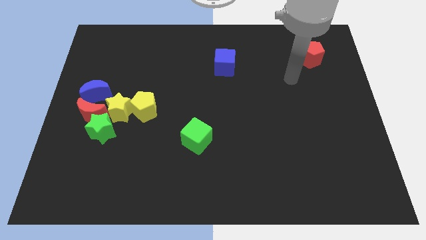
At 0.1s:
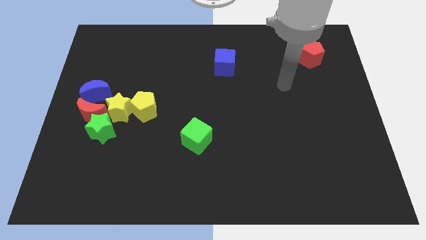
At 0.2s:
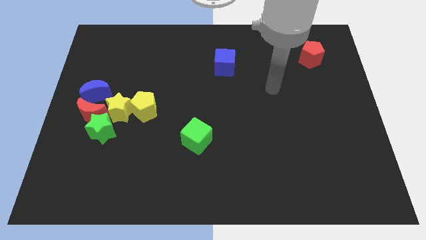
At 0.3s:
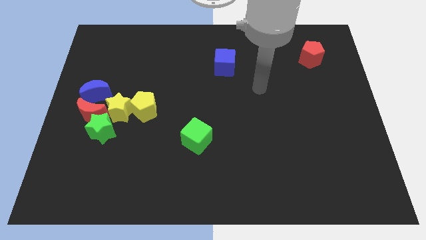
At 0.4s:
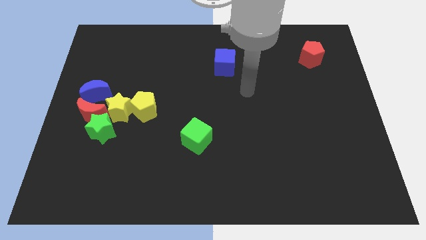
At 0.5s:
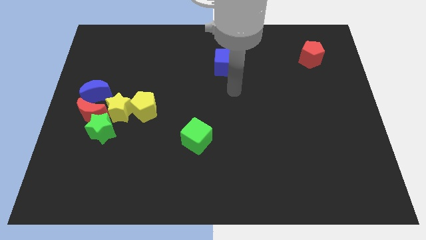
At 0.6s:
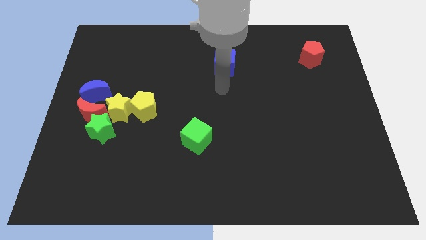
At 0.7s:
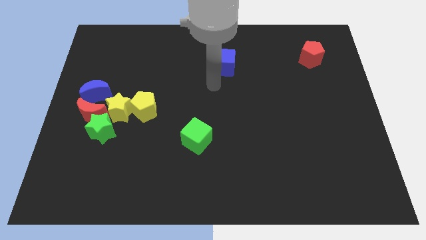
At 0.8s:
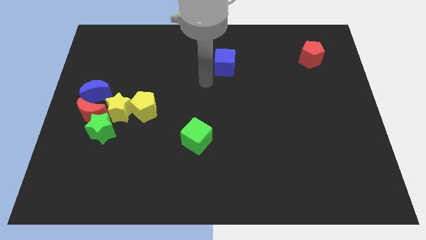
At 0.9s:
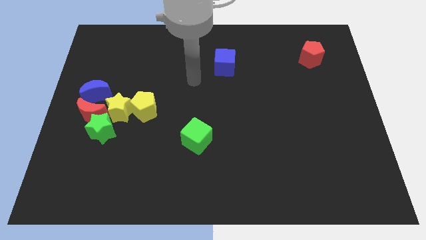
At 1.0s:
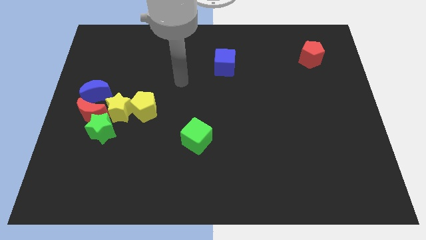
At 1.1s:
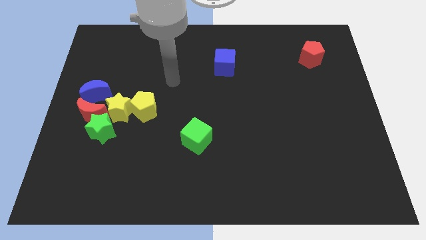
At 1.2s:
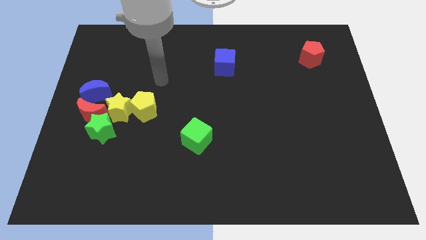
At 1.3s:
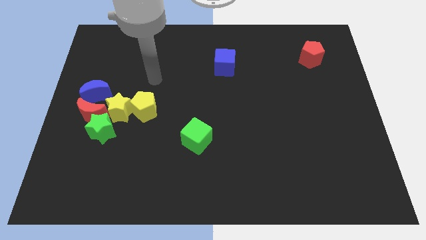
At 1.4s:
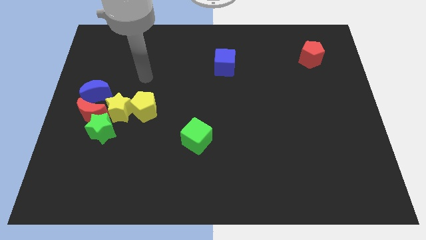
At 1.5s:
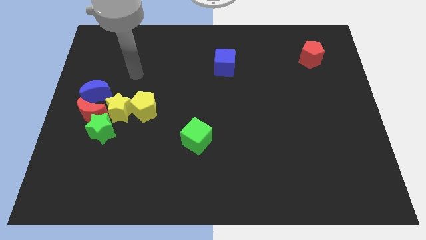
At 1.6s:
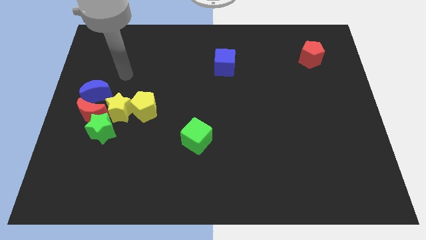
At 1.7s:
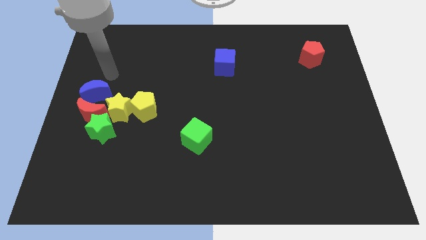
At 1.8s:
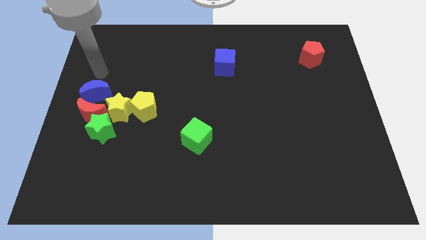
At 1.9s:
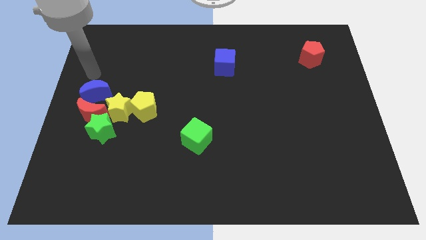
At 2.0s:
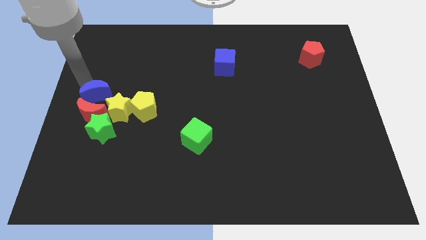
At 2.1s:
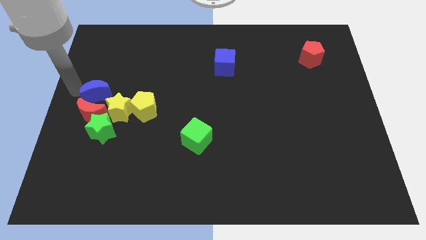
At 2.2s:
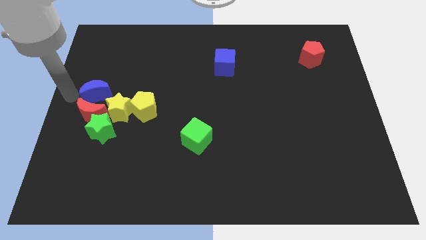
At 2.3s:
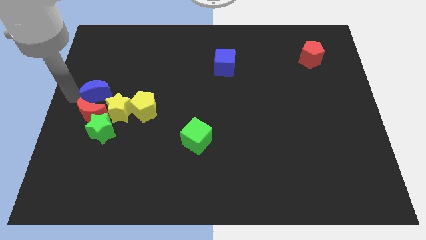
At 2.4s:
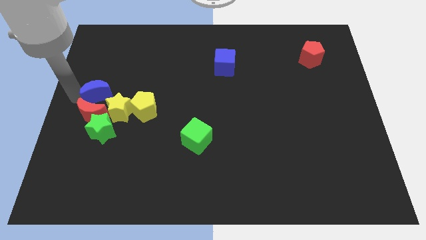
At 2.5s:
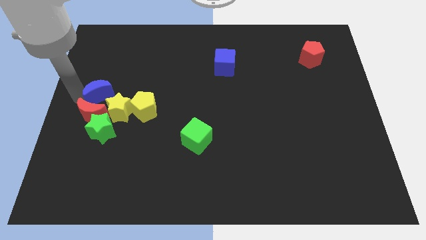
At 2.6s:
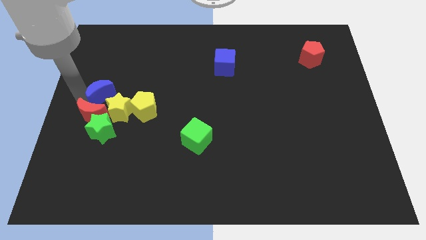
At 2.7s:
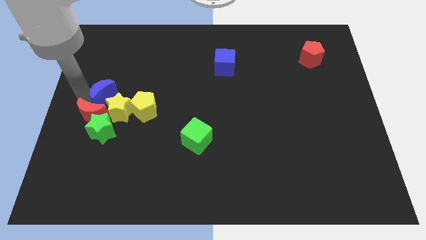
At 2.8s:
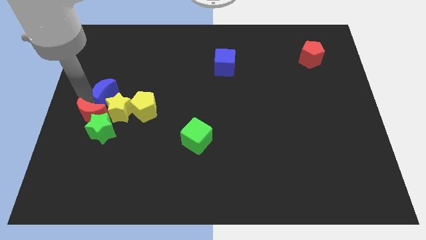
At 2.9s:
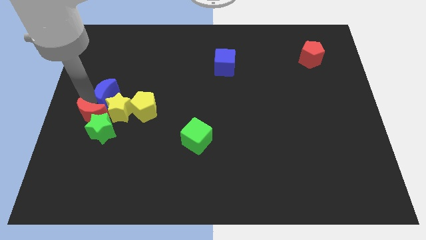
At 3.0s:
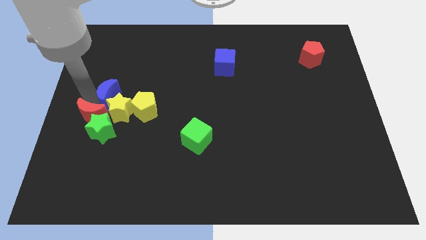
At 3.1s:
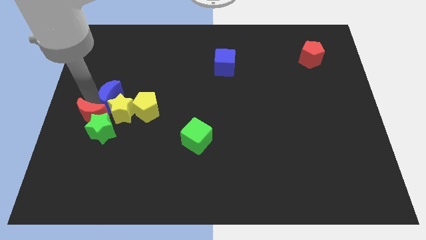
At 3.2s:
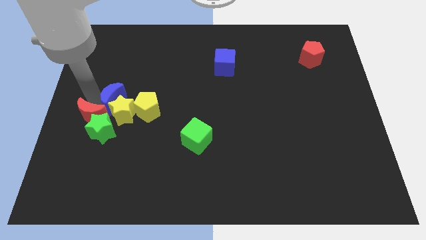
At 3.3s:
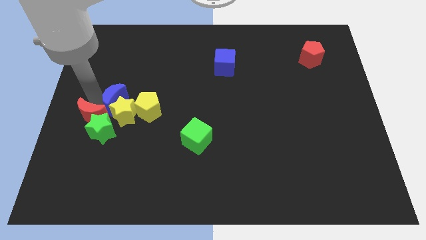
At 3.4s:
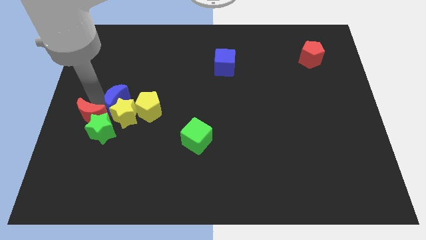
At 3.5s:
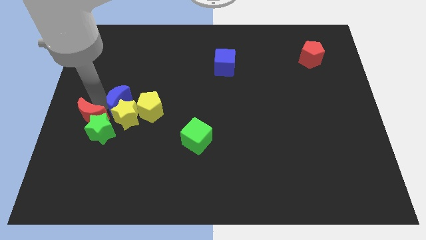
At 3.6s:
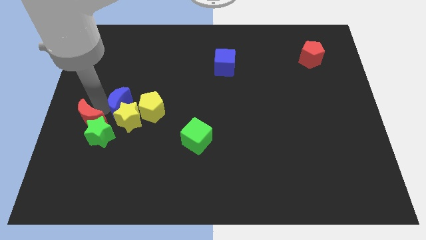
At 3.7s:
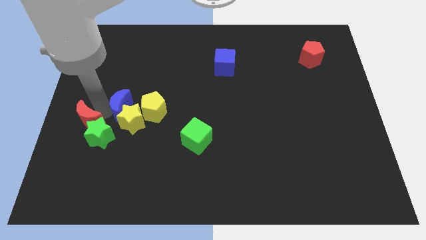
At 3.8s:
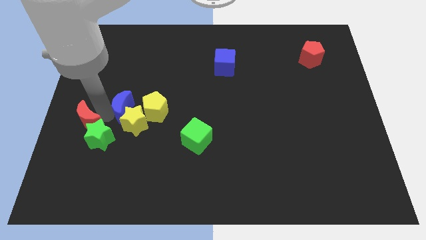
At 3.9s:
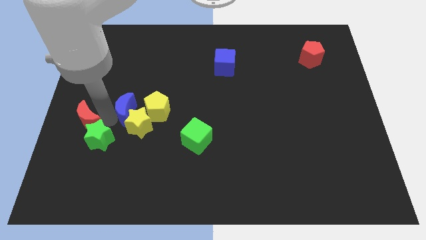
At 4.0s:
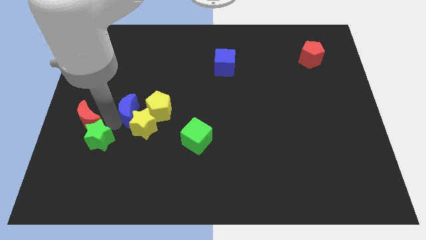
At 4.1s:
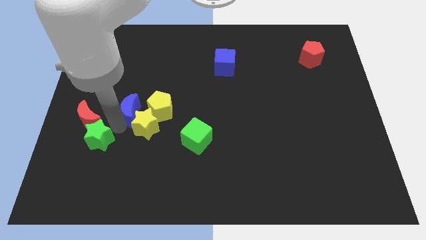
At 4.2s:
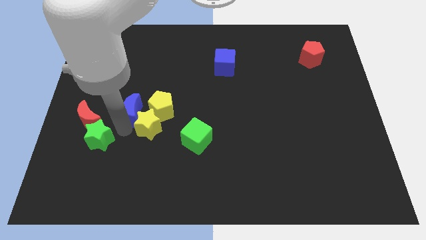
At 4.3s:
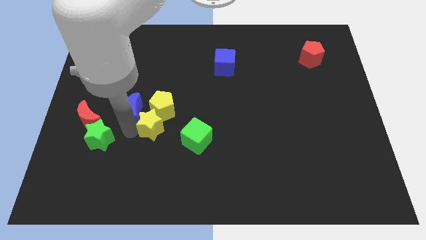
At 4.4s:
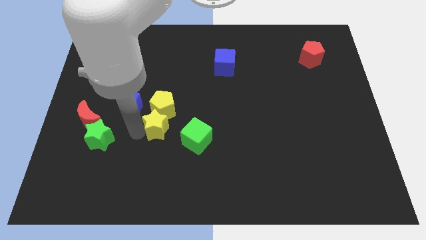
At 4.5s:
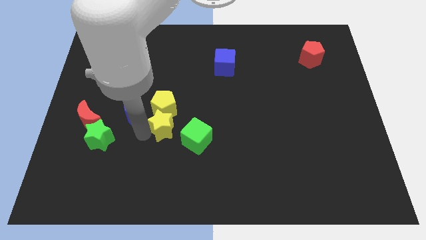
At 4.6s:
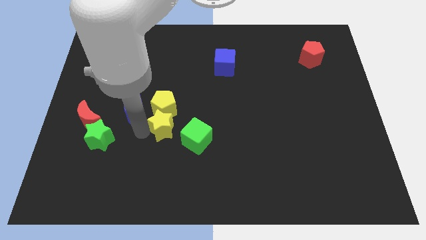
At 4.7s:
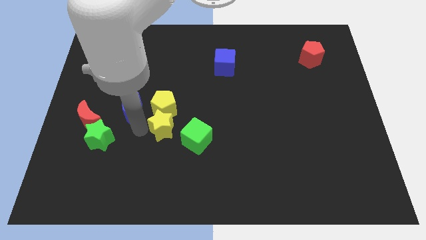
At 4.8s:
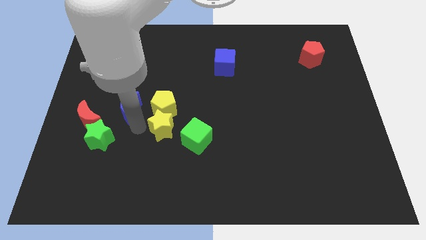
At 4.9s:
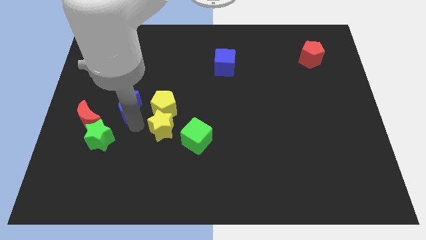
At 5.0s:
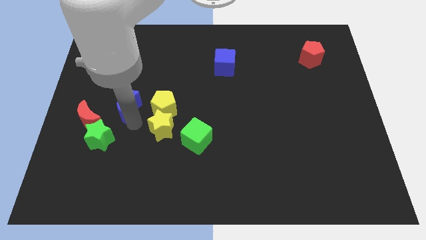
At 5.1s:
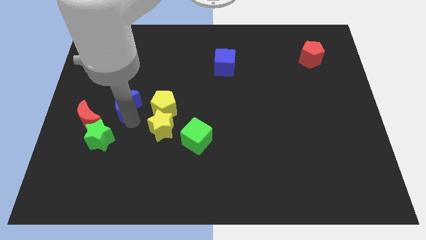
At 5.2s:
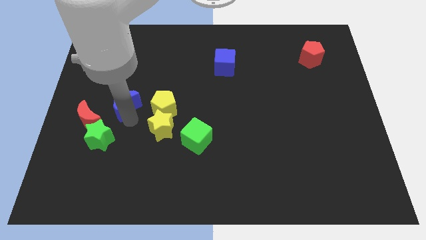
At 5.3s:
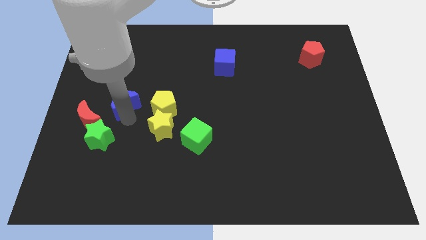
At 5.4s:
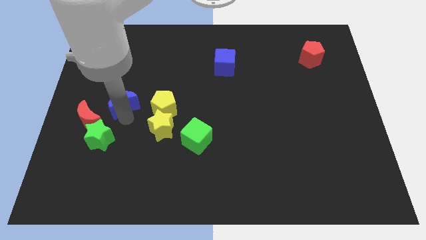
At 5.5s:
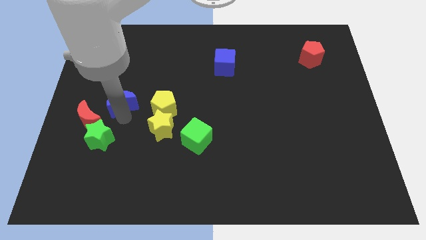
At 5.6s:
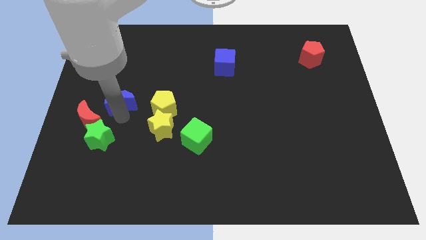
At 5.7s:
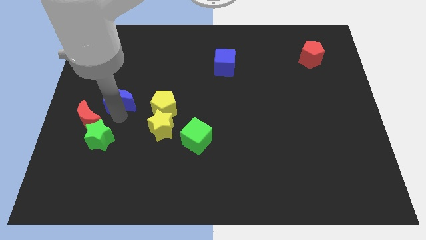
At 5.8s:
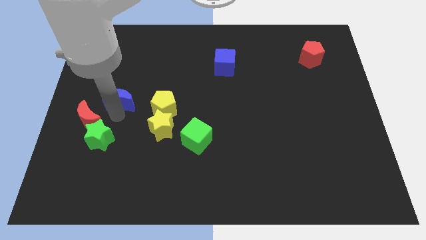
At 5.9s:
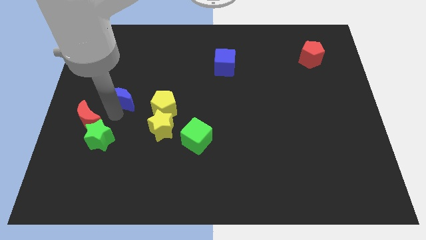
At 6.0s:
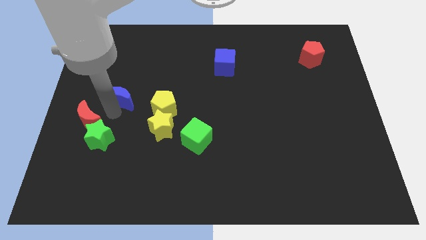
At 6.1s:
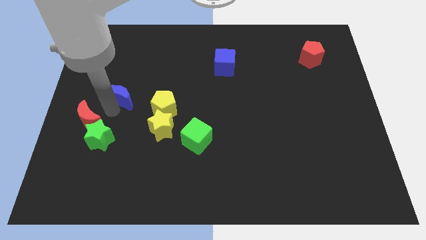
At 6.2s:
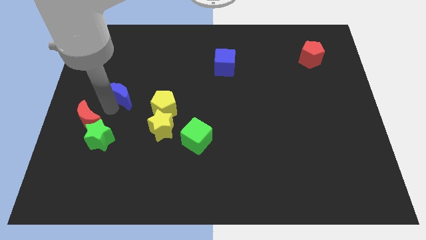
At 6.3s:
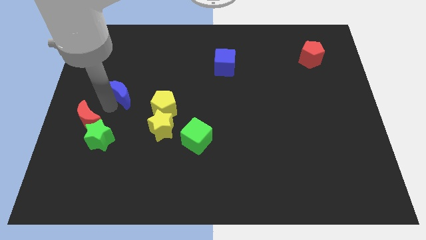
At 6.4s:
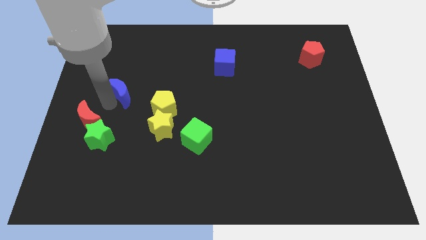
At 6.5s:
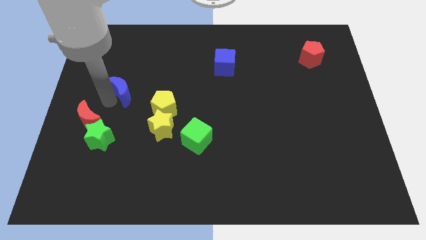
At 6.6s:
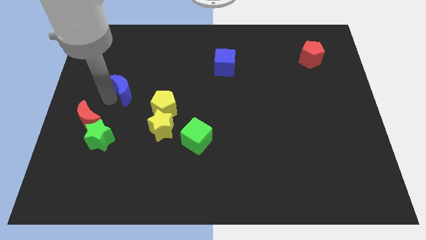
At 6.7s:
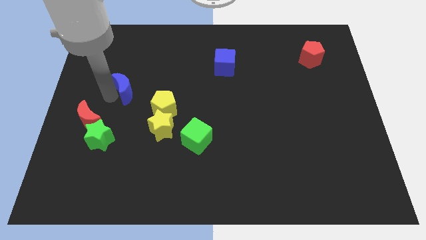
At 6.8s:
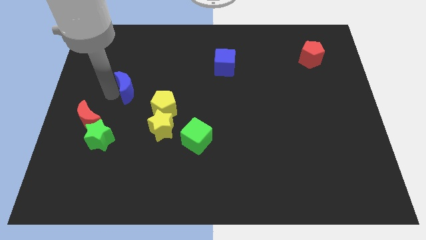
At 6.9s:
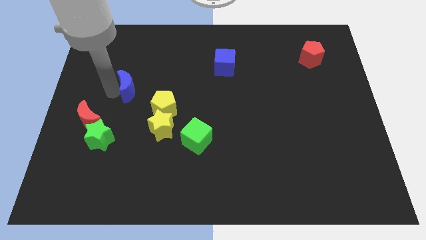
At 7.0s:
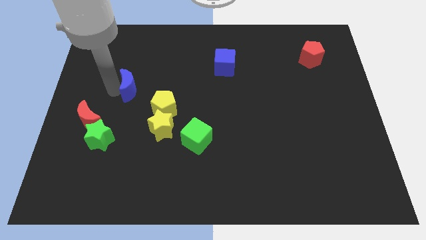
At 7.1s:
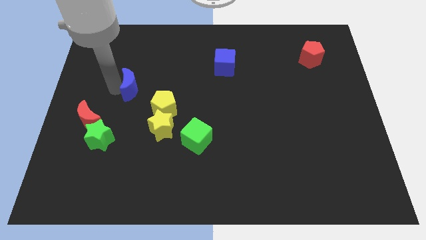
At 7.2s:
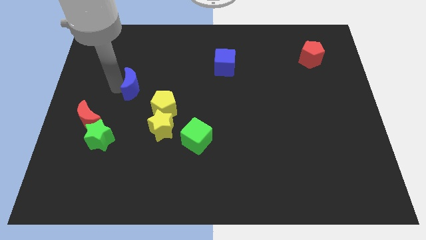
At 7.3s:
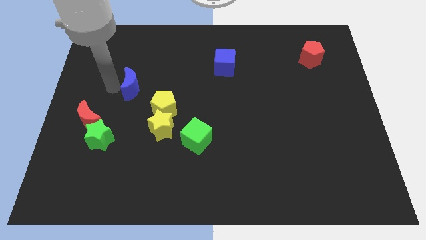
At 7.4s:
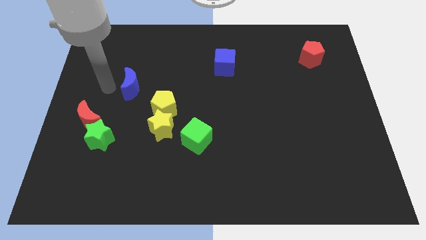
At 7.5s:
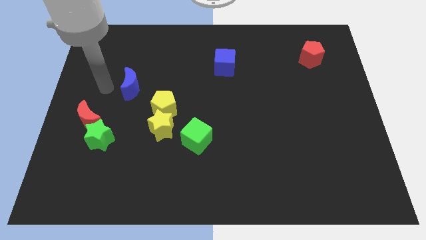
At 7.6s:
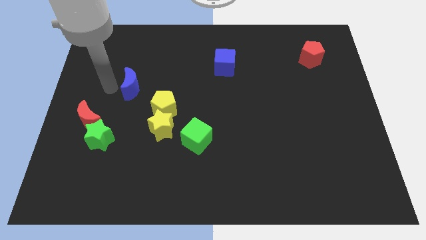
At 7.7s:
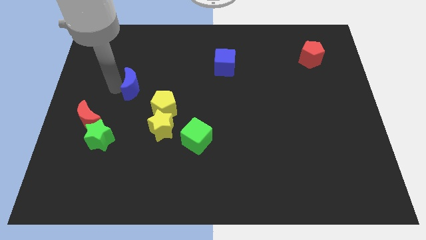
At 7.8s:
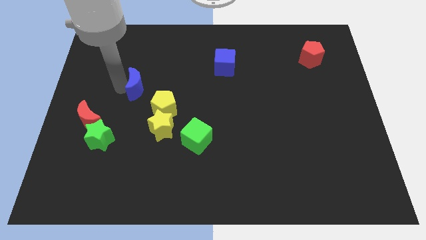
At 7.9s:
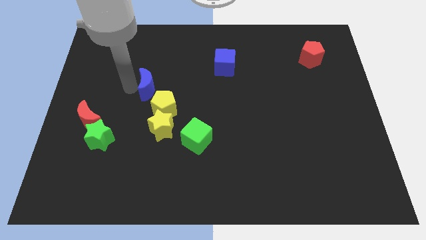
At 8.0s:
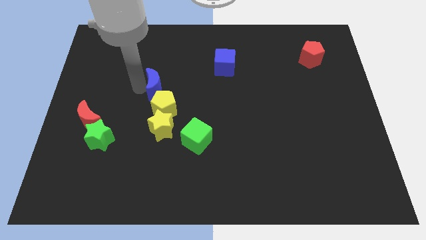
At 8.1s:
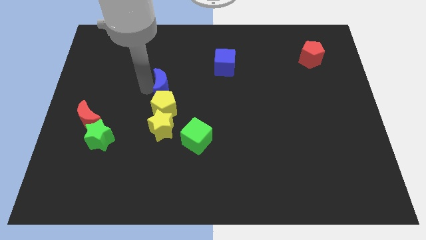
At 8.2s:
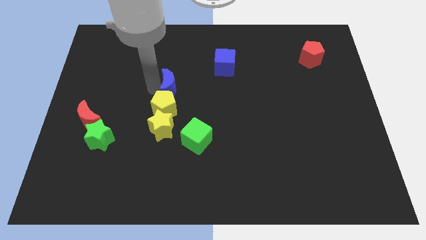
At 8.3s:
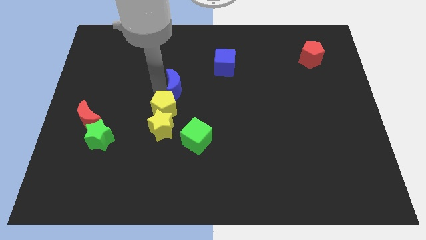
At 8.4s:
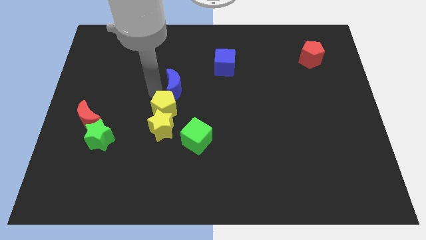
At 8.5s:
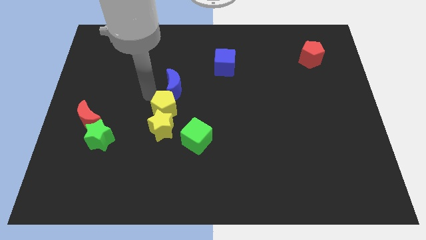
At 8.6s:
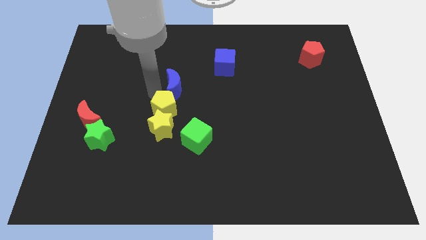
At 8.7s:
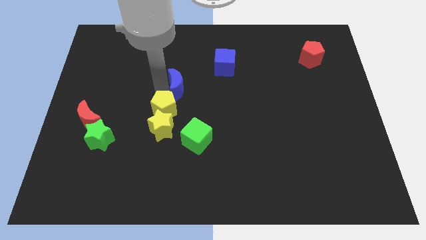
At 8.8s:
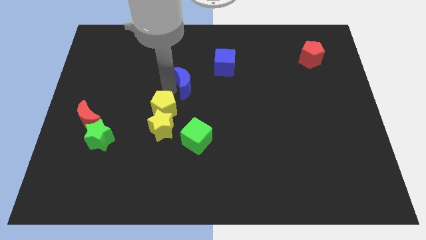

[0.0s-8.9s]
push the blue moon diagonally down and to the left of the blue cube
